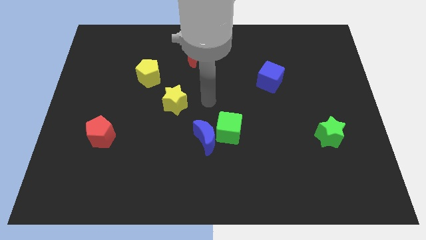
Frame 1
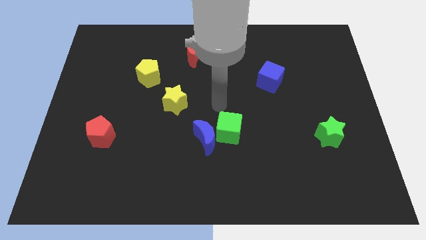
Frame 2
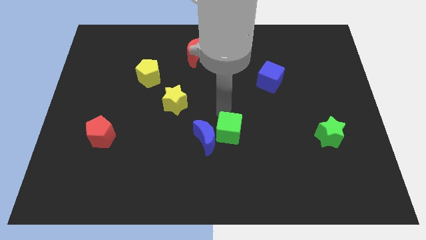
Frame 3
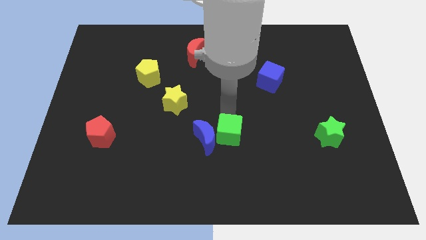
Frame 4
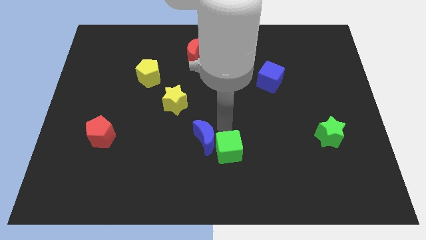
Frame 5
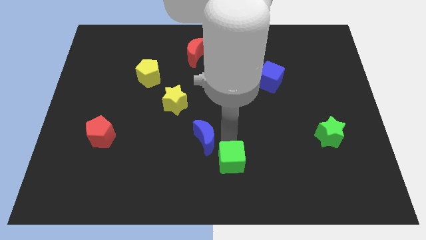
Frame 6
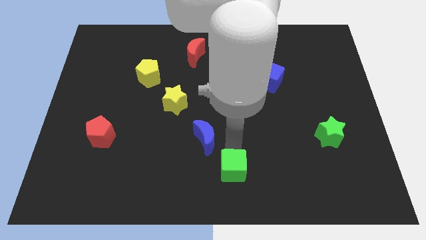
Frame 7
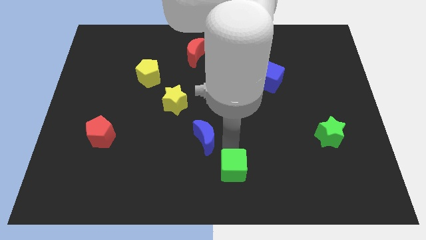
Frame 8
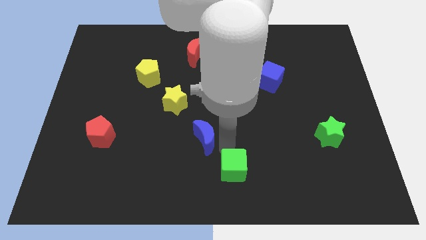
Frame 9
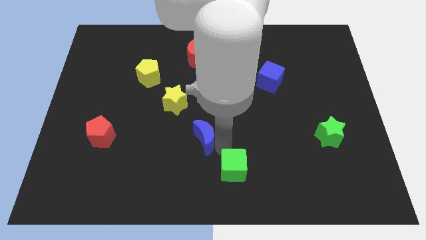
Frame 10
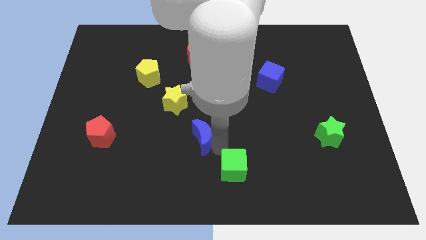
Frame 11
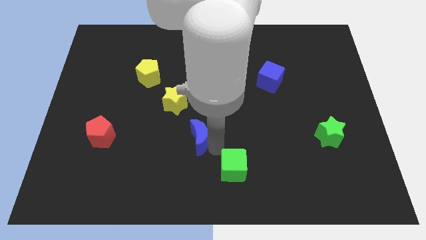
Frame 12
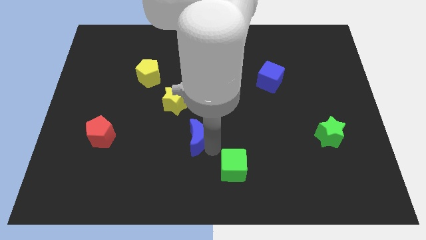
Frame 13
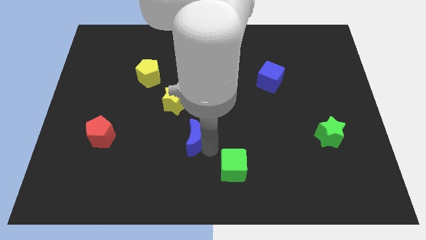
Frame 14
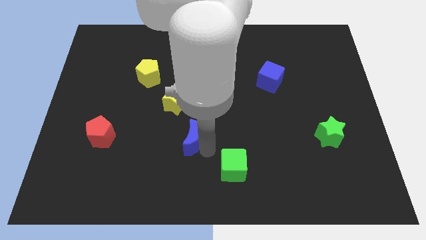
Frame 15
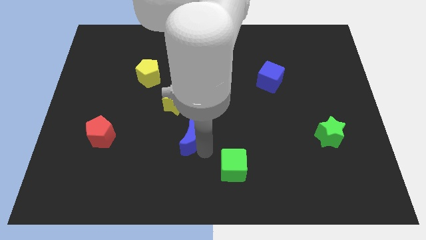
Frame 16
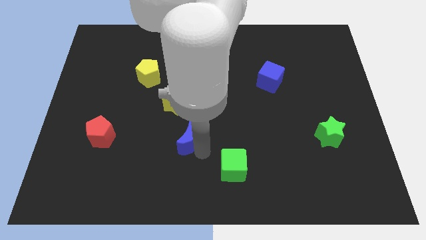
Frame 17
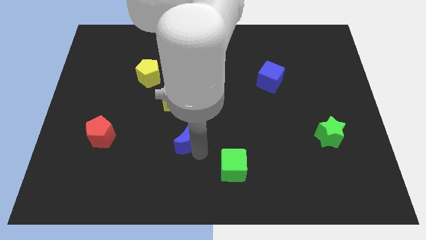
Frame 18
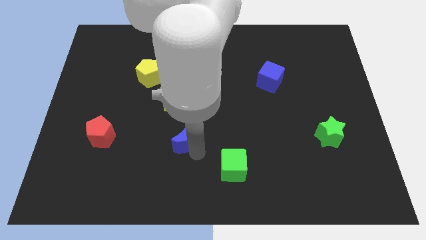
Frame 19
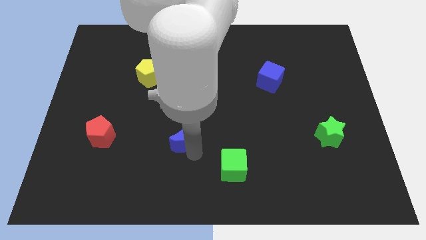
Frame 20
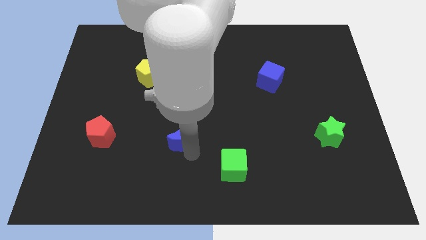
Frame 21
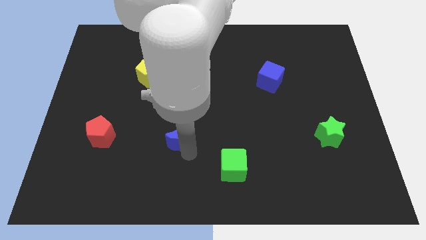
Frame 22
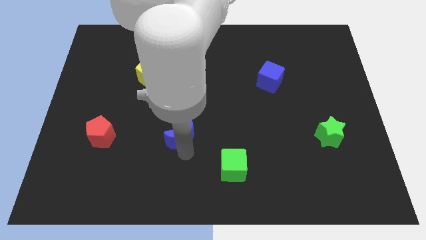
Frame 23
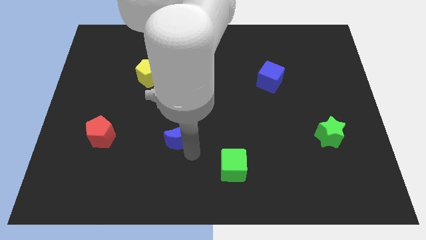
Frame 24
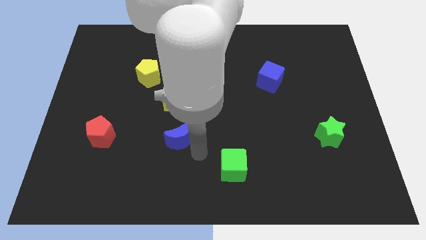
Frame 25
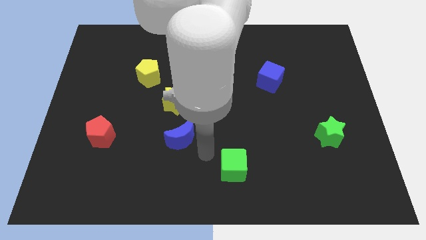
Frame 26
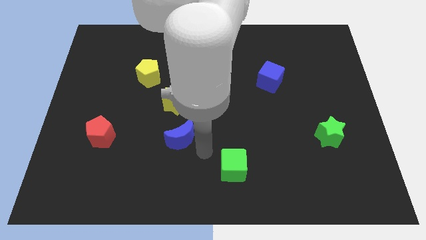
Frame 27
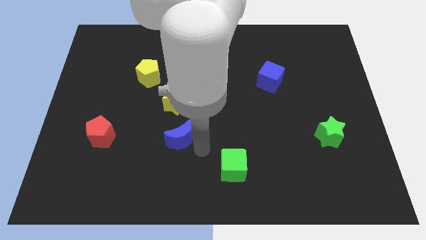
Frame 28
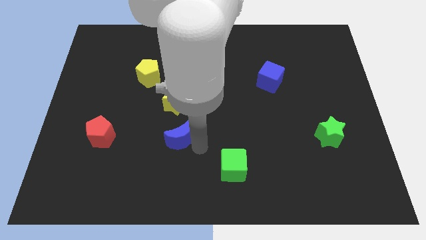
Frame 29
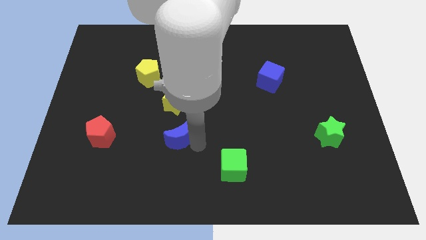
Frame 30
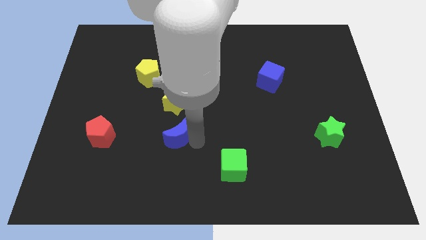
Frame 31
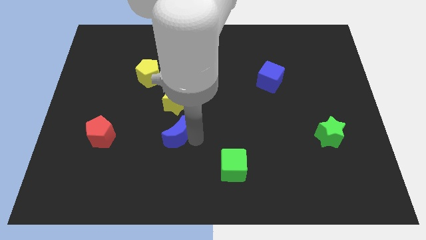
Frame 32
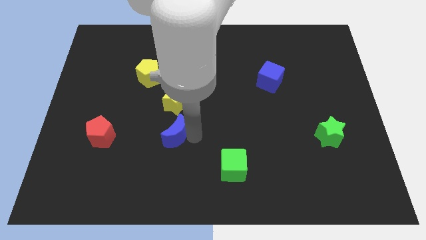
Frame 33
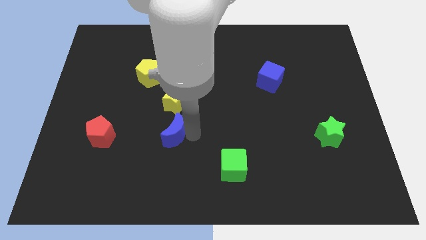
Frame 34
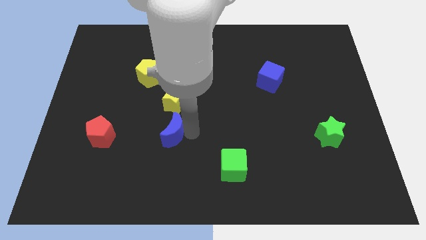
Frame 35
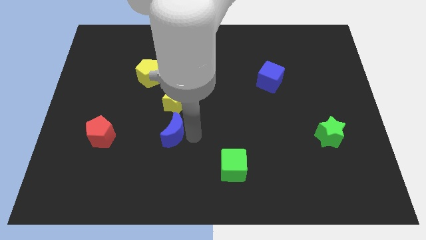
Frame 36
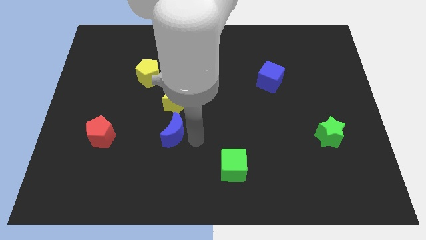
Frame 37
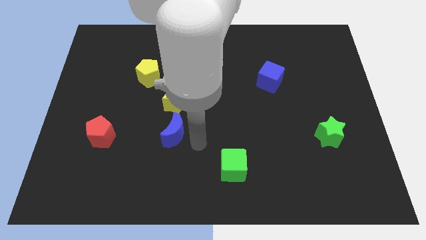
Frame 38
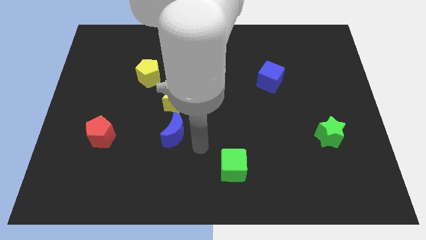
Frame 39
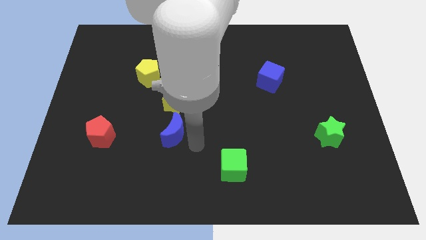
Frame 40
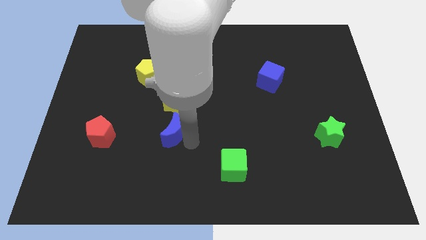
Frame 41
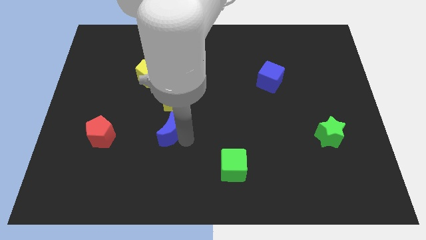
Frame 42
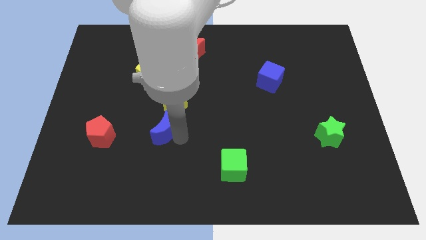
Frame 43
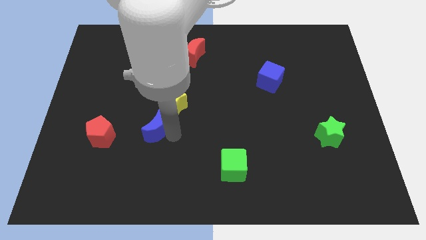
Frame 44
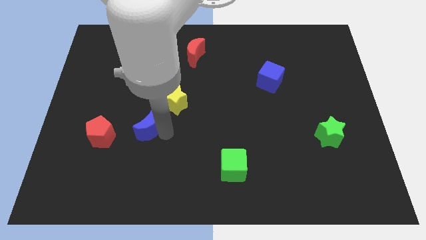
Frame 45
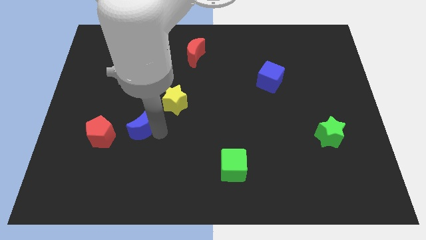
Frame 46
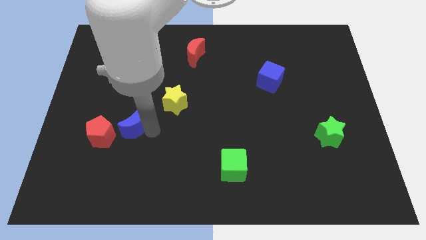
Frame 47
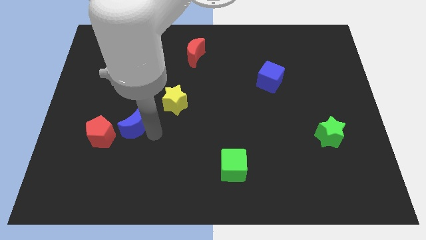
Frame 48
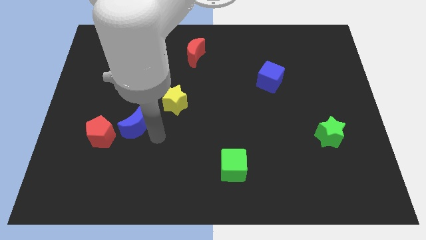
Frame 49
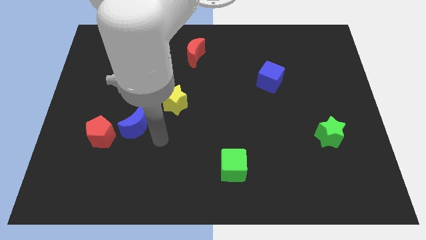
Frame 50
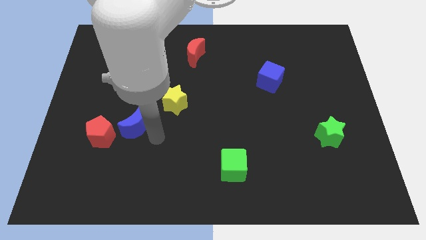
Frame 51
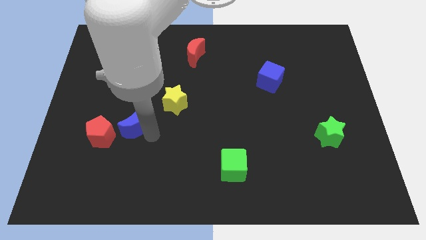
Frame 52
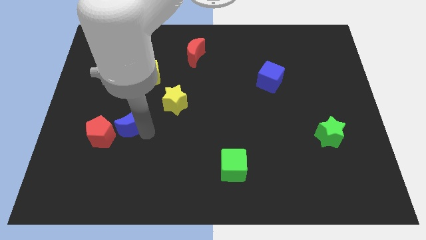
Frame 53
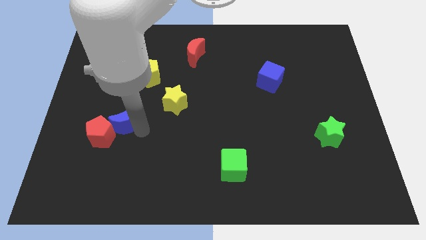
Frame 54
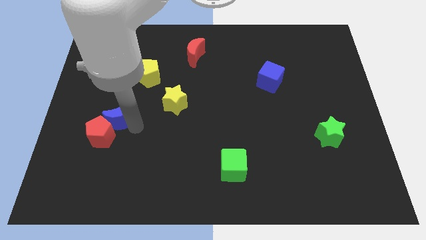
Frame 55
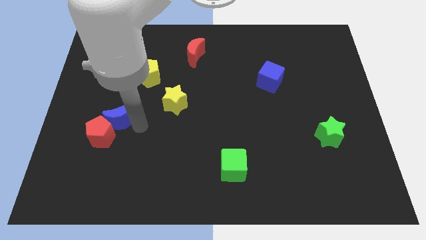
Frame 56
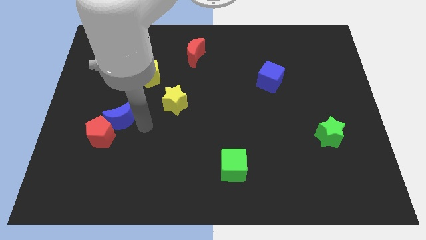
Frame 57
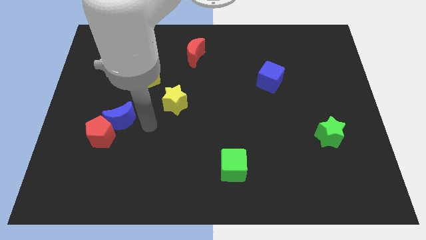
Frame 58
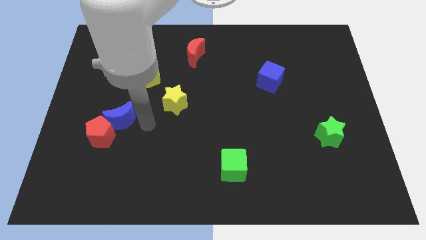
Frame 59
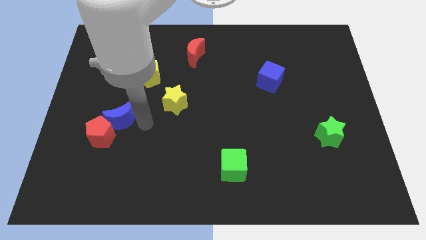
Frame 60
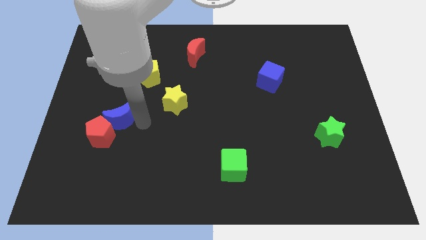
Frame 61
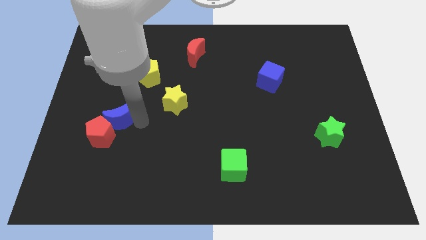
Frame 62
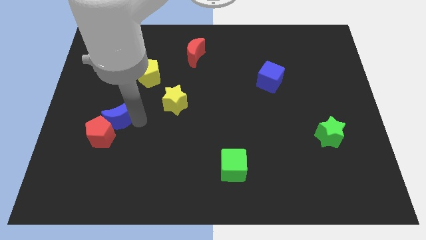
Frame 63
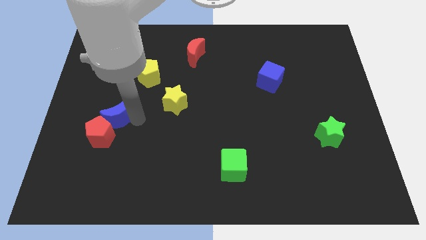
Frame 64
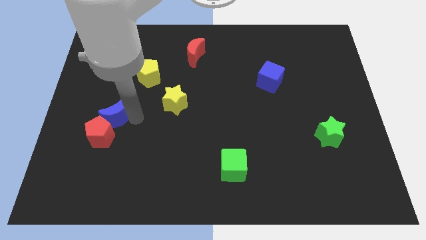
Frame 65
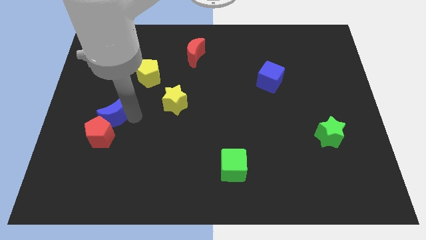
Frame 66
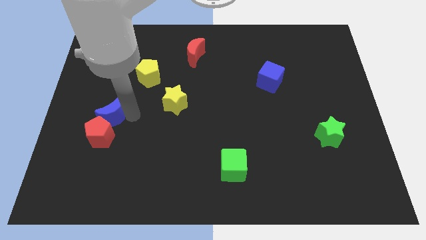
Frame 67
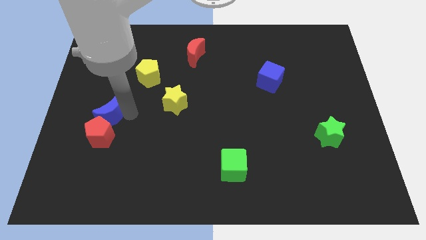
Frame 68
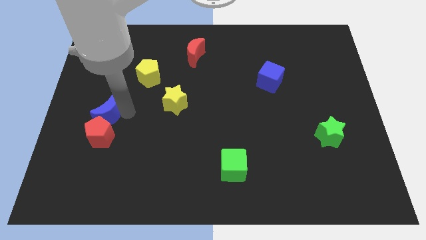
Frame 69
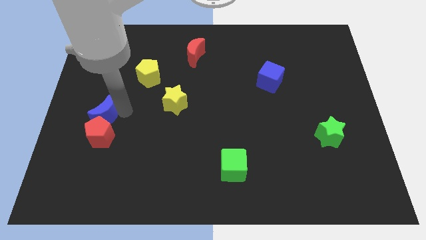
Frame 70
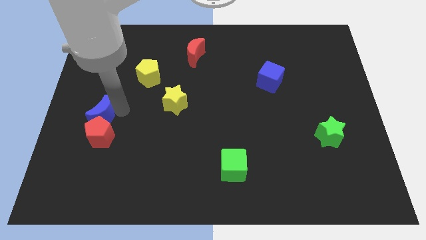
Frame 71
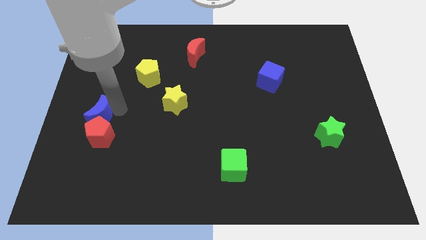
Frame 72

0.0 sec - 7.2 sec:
put the blue moon to the center left
